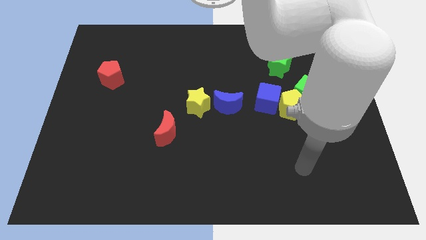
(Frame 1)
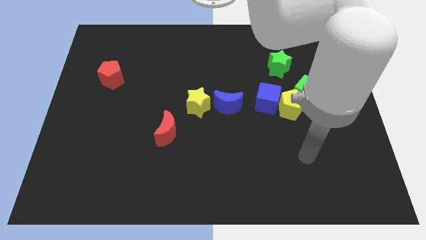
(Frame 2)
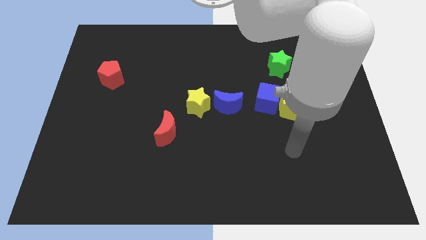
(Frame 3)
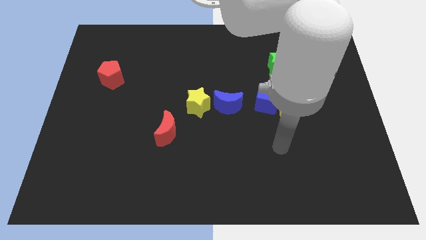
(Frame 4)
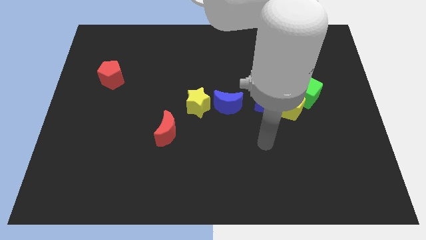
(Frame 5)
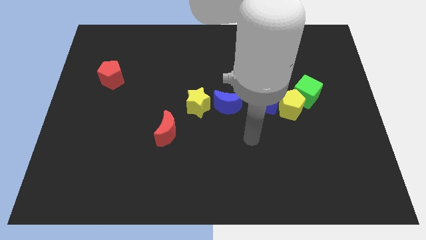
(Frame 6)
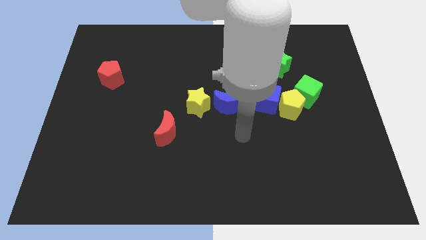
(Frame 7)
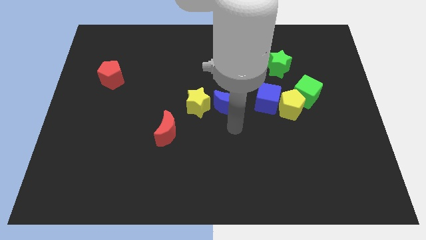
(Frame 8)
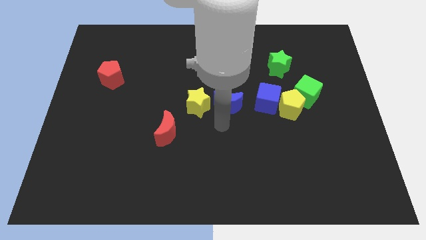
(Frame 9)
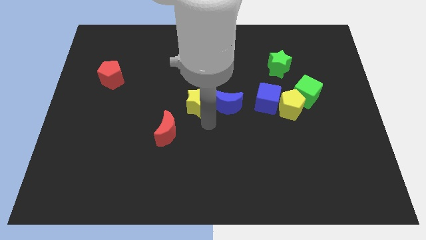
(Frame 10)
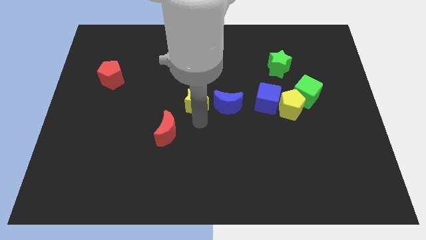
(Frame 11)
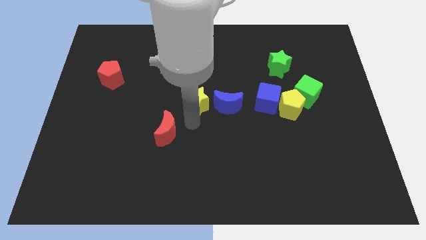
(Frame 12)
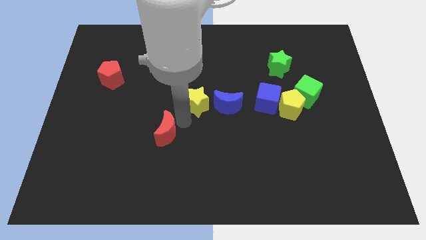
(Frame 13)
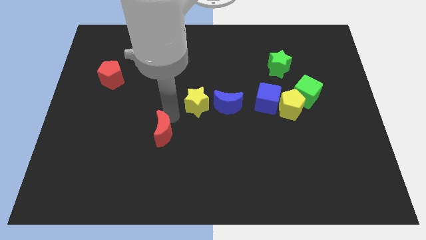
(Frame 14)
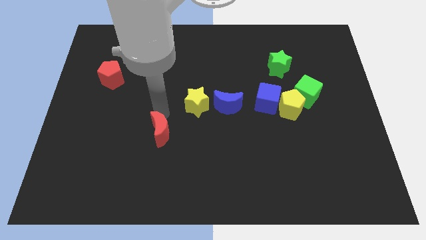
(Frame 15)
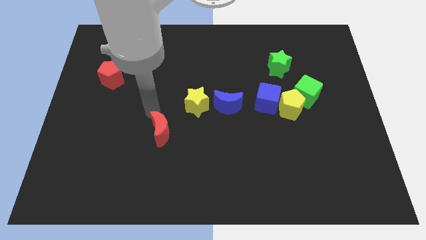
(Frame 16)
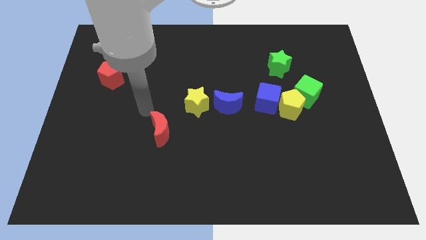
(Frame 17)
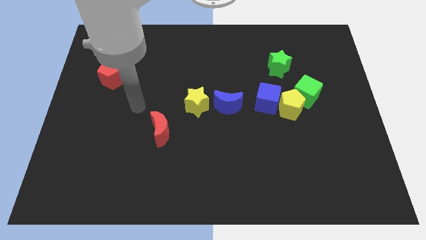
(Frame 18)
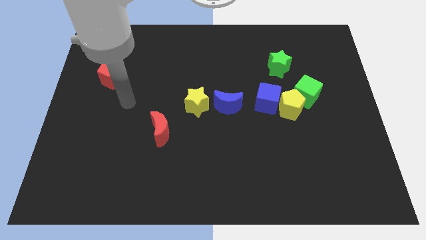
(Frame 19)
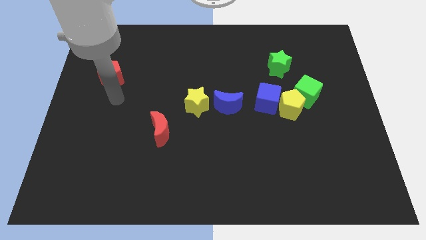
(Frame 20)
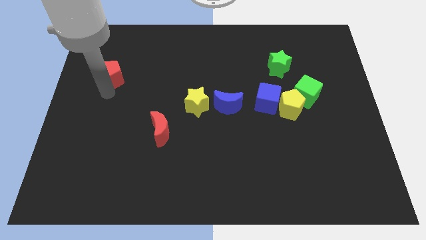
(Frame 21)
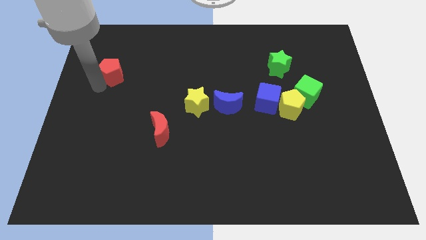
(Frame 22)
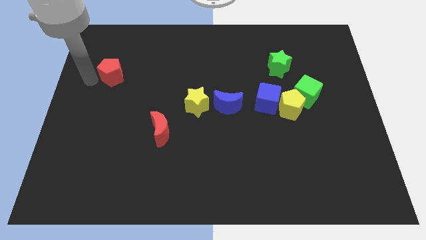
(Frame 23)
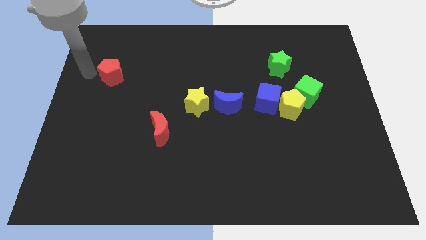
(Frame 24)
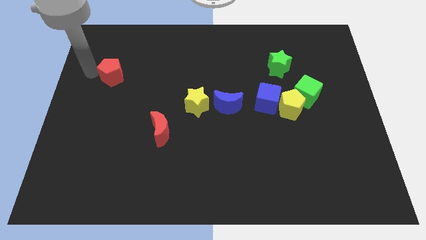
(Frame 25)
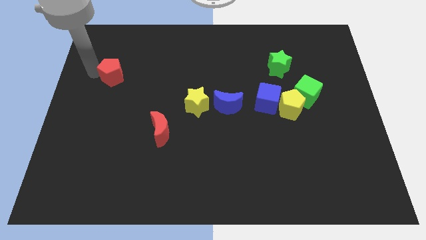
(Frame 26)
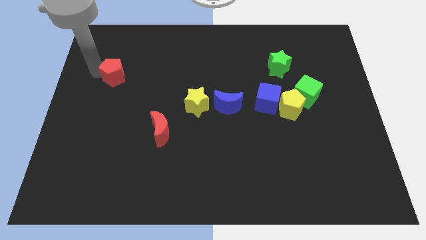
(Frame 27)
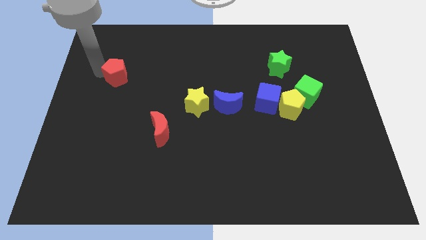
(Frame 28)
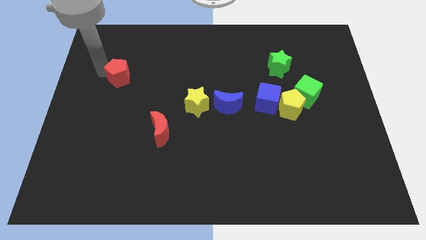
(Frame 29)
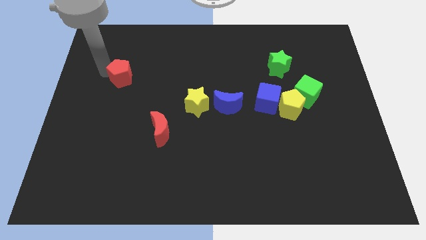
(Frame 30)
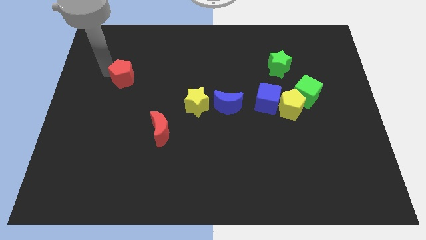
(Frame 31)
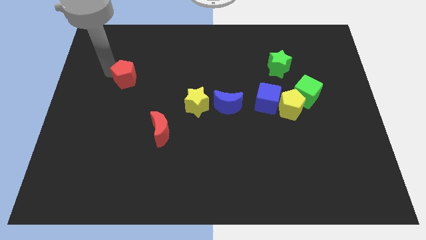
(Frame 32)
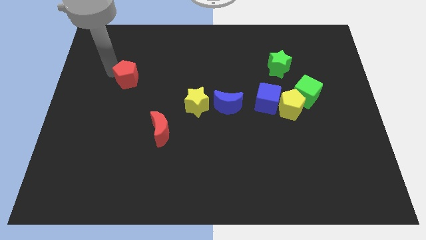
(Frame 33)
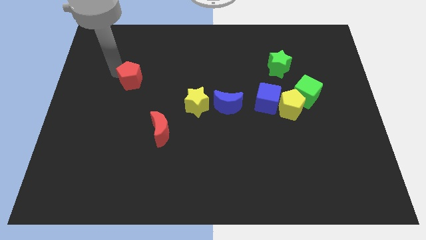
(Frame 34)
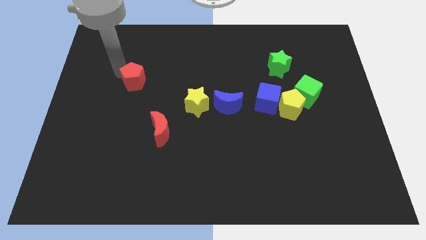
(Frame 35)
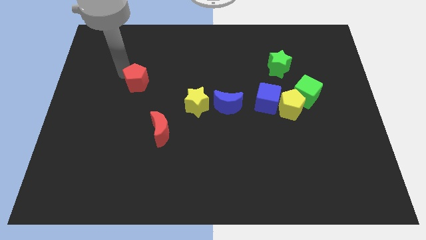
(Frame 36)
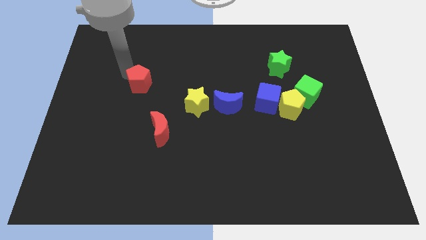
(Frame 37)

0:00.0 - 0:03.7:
move the red pentagon to the right a little

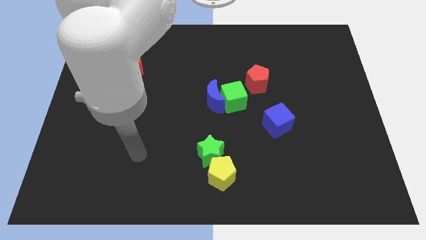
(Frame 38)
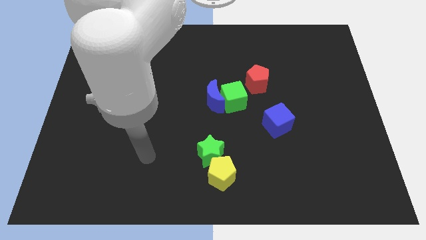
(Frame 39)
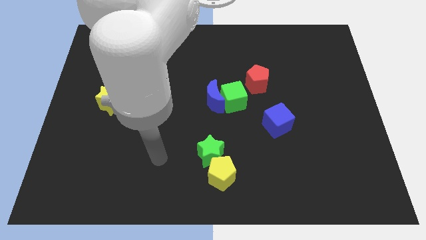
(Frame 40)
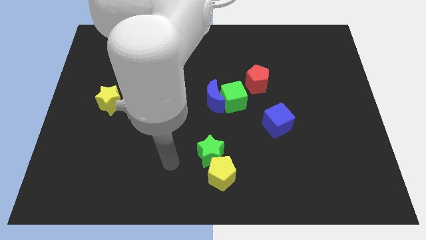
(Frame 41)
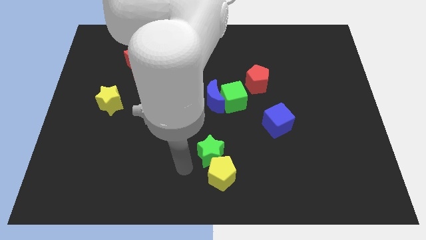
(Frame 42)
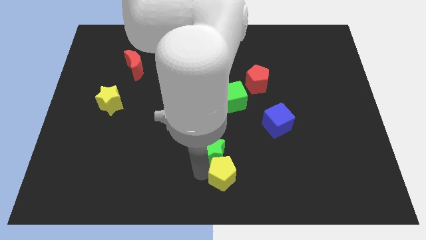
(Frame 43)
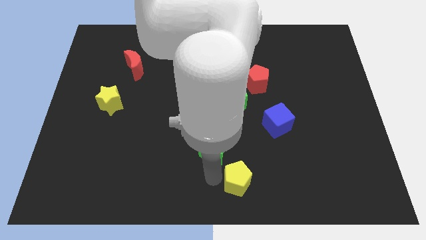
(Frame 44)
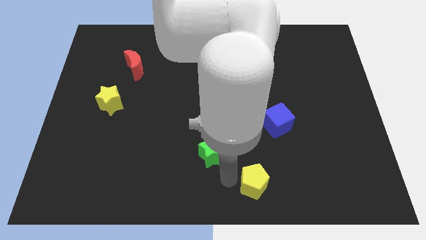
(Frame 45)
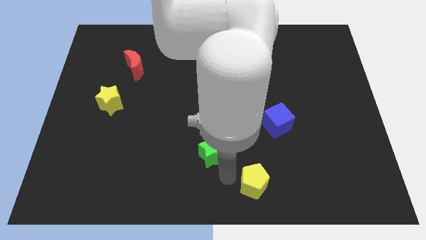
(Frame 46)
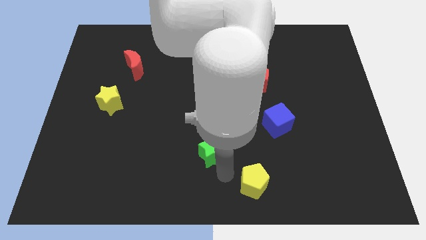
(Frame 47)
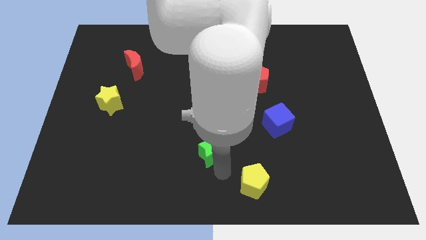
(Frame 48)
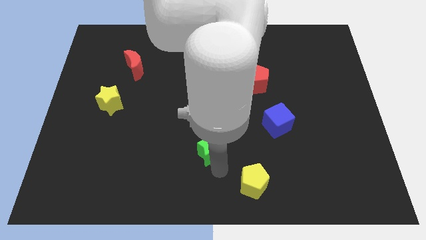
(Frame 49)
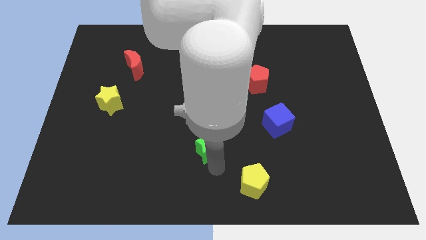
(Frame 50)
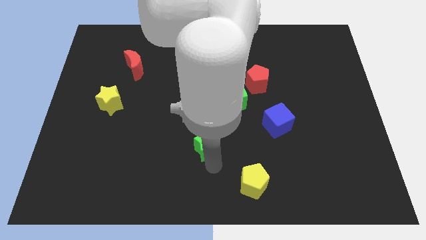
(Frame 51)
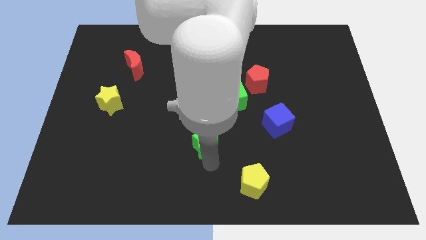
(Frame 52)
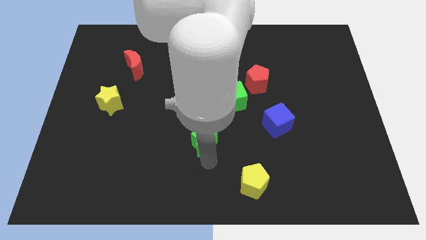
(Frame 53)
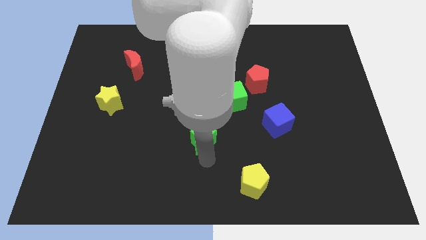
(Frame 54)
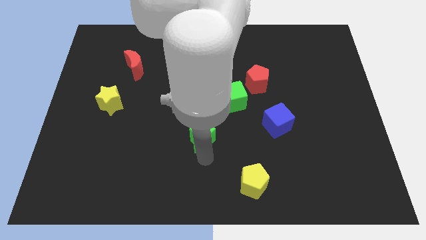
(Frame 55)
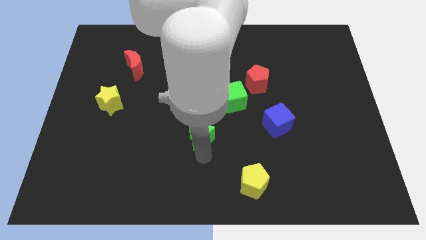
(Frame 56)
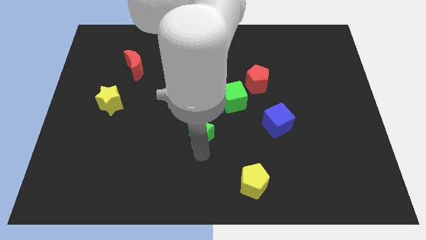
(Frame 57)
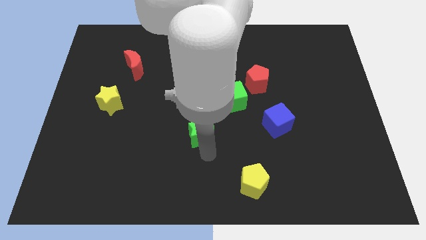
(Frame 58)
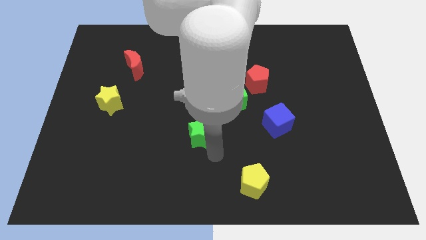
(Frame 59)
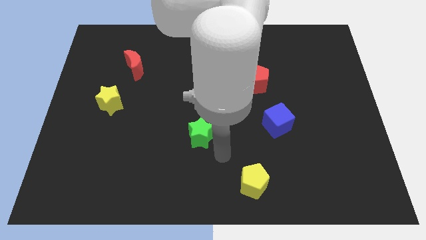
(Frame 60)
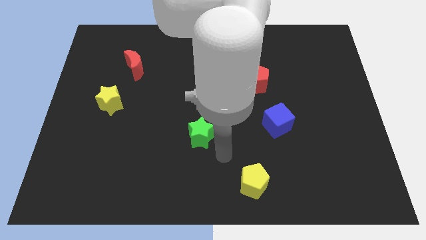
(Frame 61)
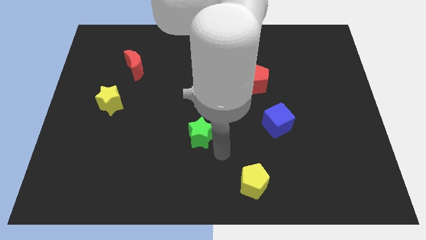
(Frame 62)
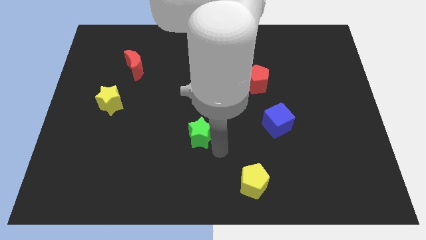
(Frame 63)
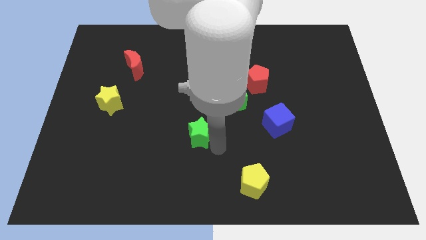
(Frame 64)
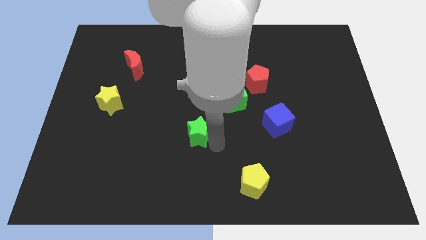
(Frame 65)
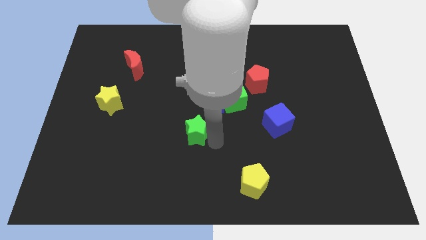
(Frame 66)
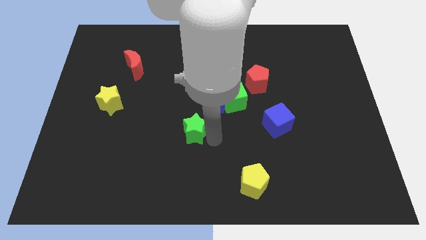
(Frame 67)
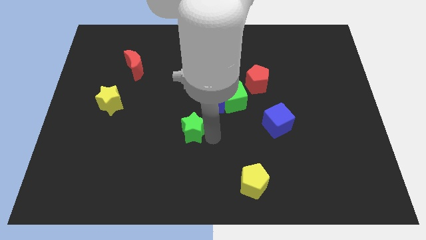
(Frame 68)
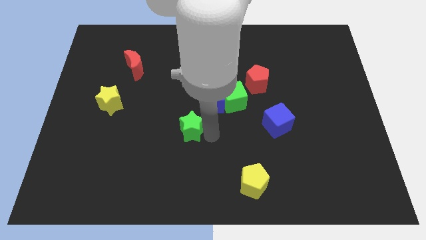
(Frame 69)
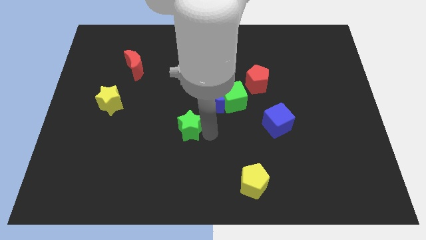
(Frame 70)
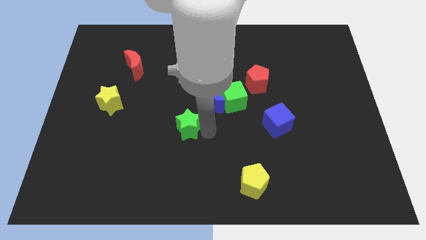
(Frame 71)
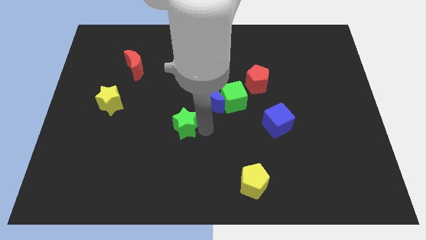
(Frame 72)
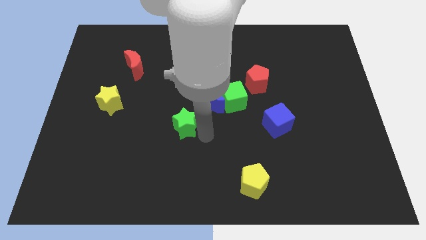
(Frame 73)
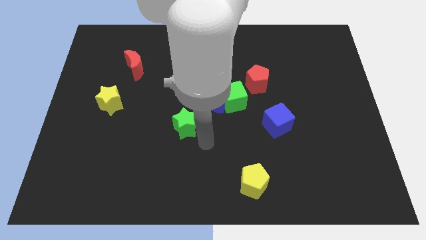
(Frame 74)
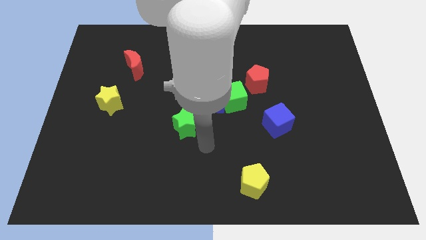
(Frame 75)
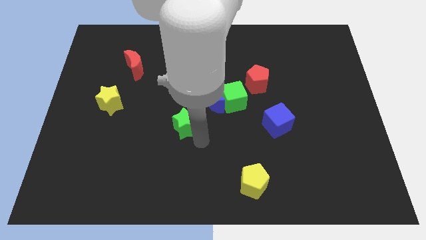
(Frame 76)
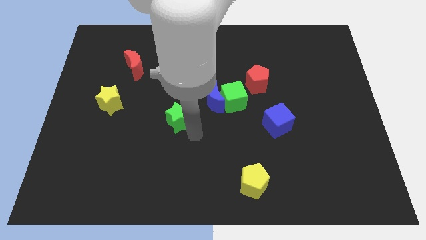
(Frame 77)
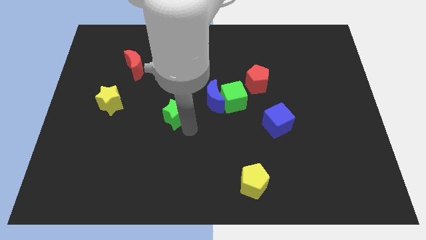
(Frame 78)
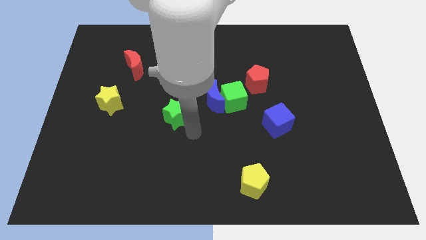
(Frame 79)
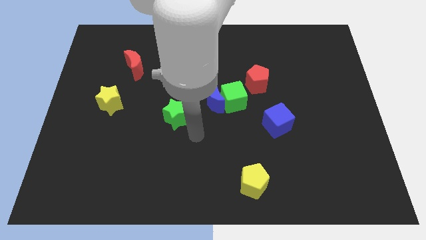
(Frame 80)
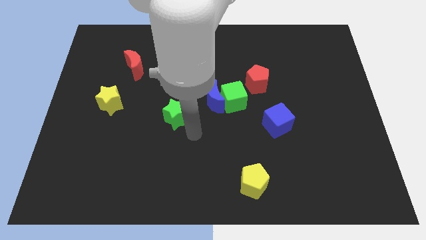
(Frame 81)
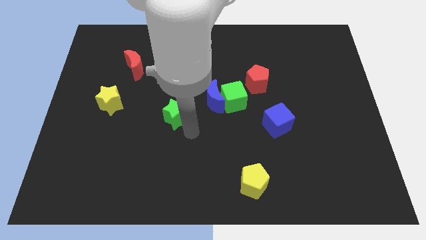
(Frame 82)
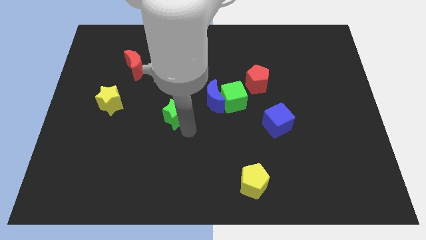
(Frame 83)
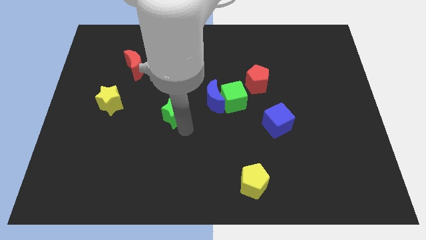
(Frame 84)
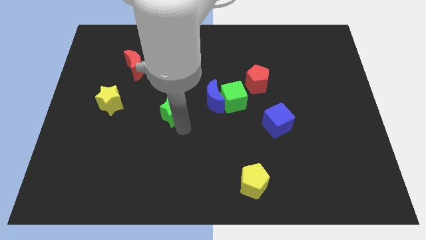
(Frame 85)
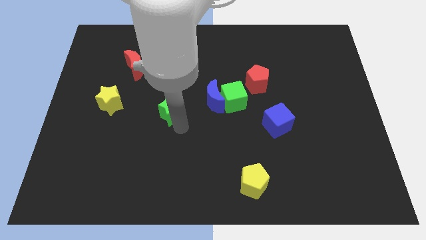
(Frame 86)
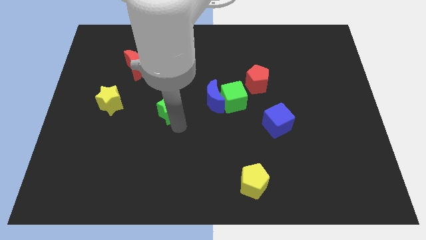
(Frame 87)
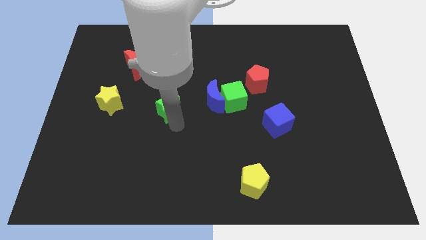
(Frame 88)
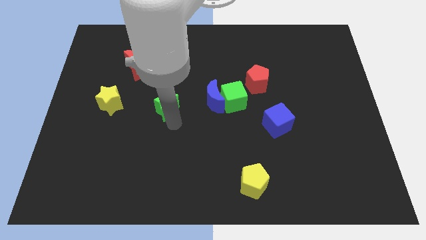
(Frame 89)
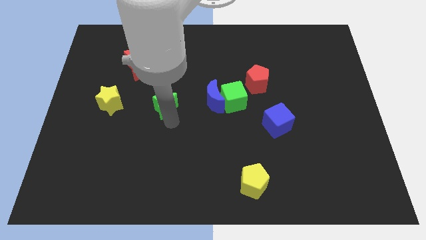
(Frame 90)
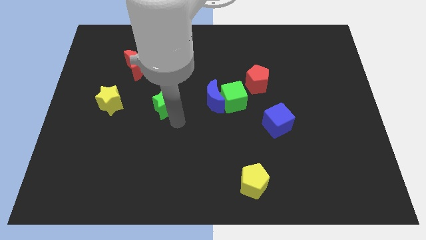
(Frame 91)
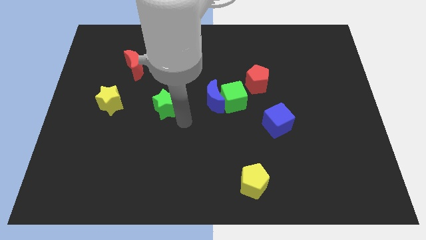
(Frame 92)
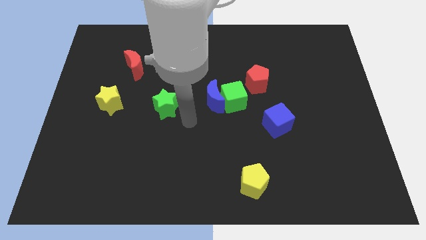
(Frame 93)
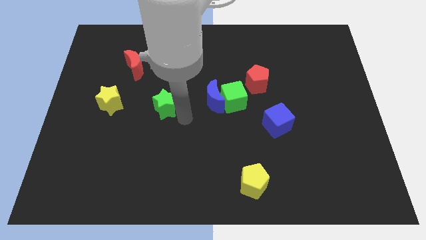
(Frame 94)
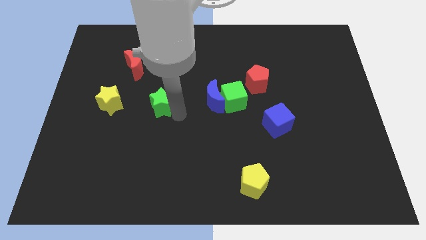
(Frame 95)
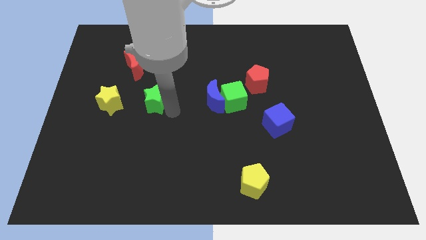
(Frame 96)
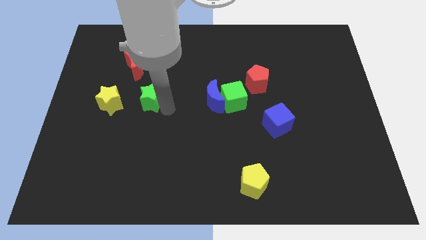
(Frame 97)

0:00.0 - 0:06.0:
slide the green star up and then to the left
